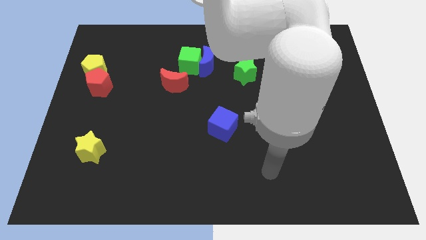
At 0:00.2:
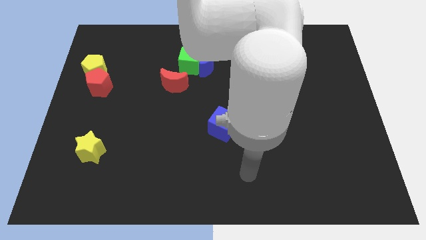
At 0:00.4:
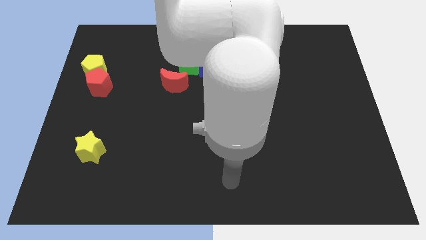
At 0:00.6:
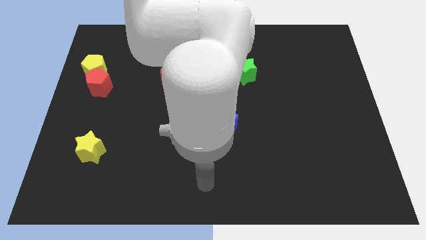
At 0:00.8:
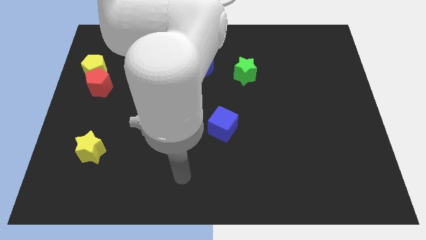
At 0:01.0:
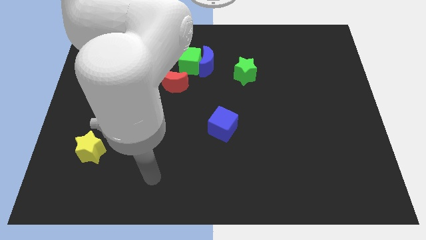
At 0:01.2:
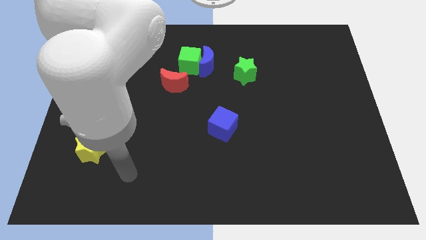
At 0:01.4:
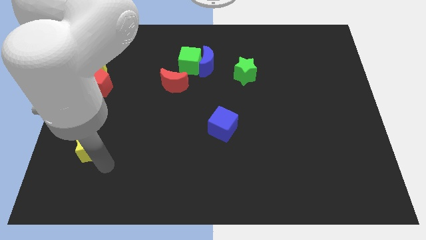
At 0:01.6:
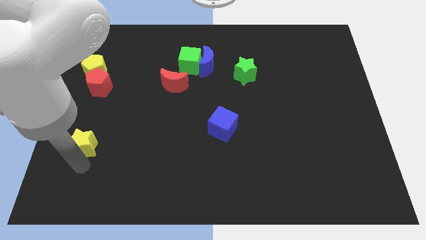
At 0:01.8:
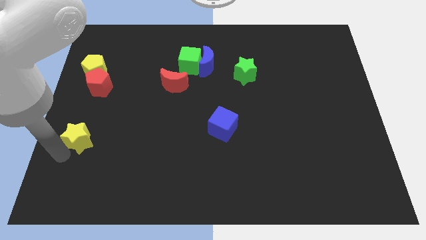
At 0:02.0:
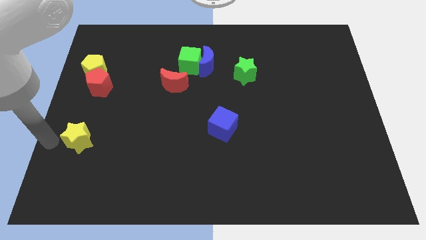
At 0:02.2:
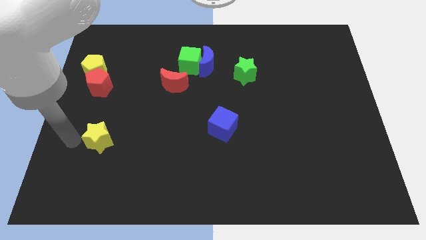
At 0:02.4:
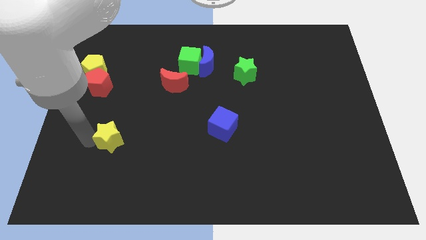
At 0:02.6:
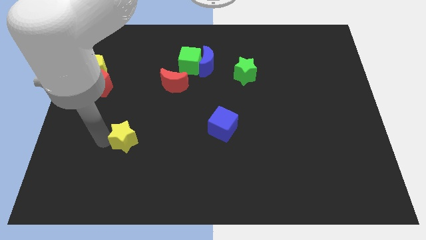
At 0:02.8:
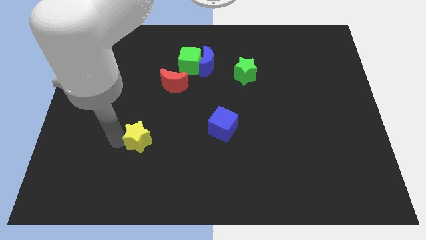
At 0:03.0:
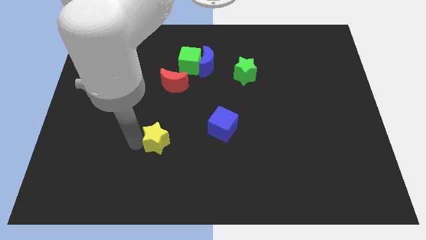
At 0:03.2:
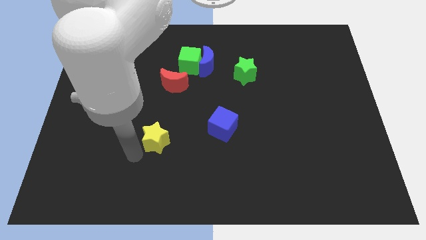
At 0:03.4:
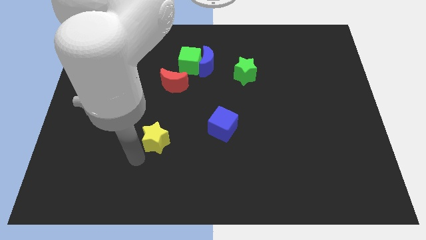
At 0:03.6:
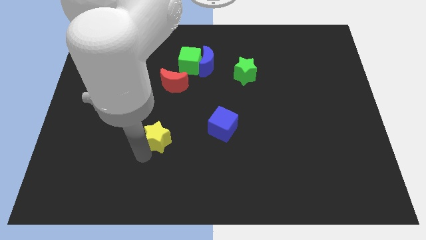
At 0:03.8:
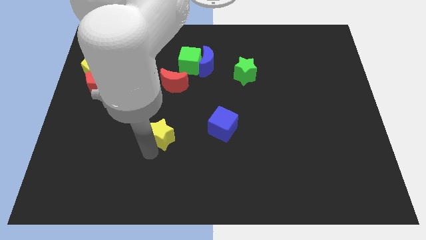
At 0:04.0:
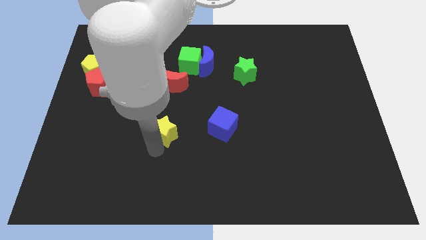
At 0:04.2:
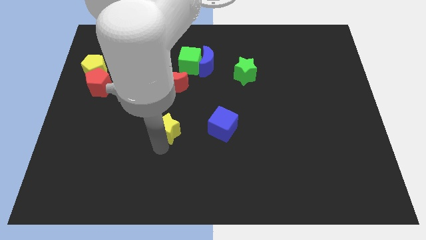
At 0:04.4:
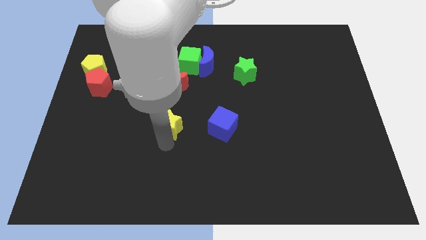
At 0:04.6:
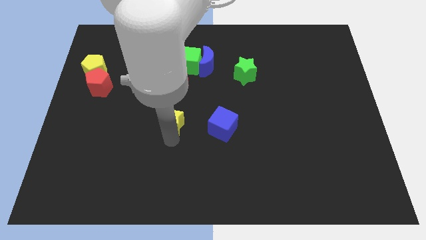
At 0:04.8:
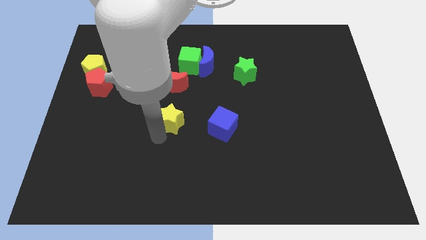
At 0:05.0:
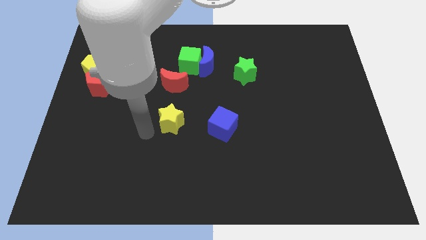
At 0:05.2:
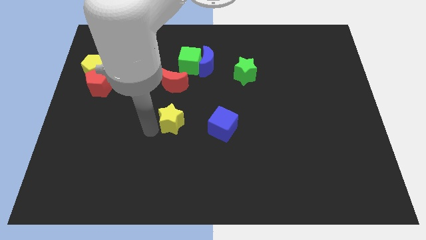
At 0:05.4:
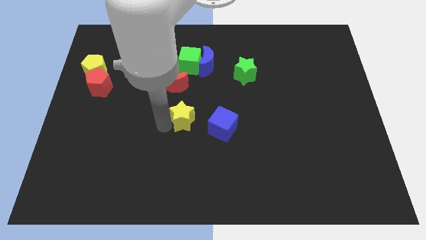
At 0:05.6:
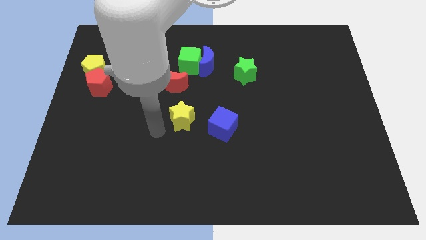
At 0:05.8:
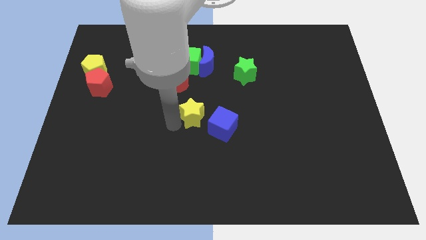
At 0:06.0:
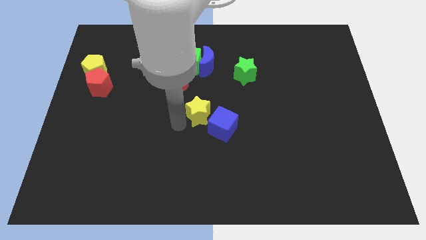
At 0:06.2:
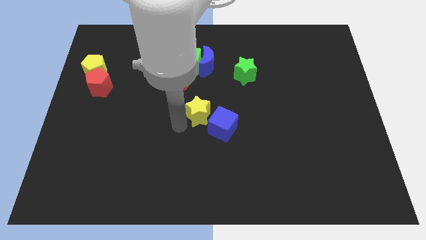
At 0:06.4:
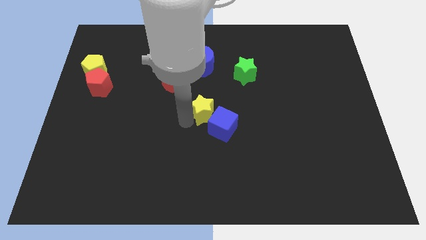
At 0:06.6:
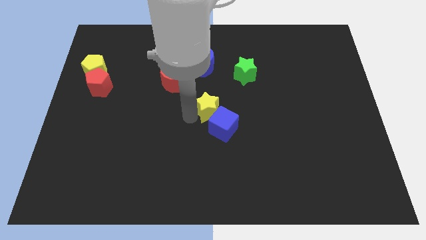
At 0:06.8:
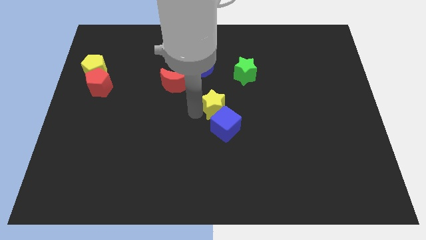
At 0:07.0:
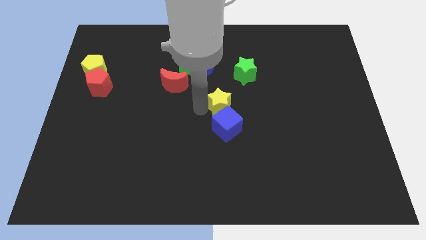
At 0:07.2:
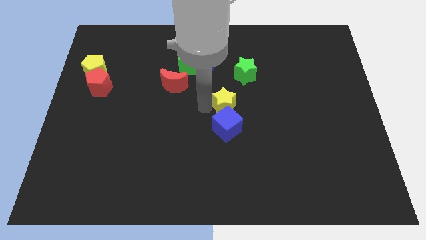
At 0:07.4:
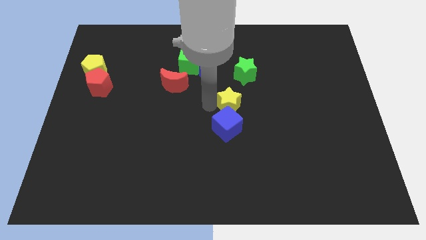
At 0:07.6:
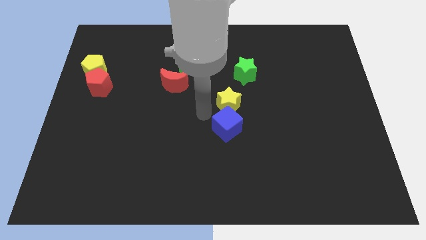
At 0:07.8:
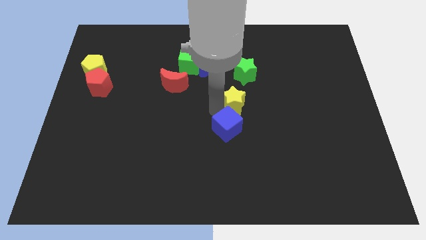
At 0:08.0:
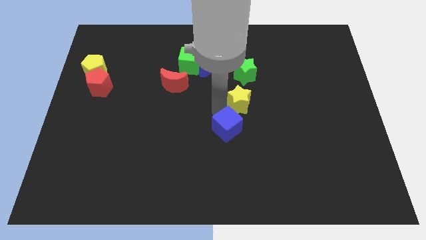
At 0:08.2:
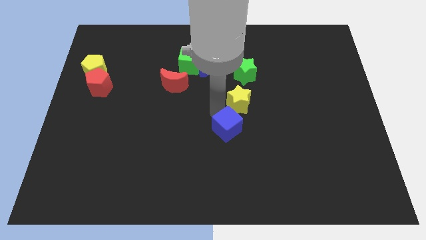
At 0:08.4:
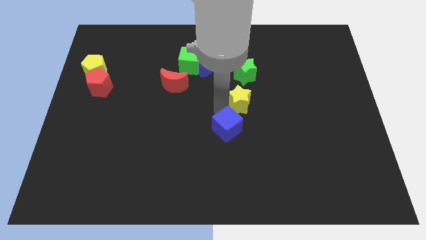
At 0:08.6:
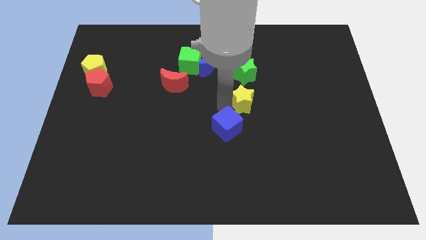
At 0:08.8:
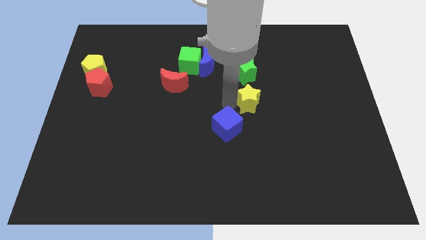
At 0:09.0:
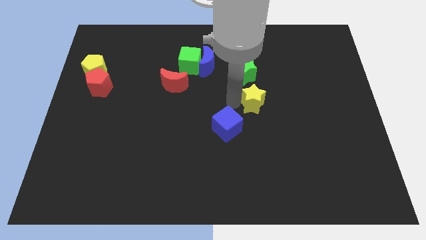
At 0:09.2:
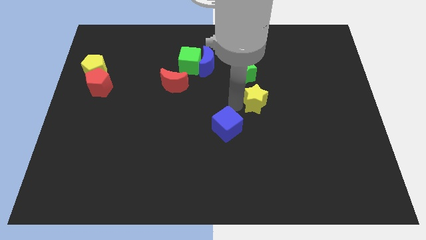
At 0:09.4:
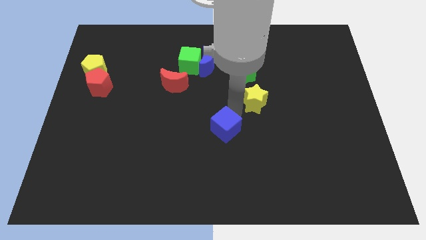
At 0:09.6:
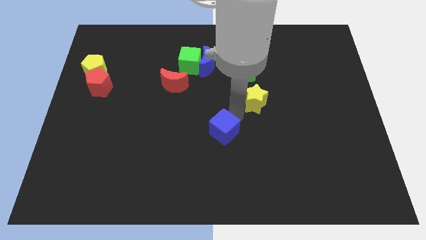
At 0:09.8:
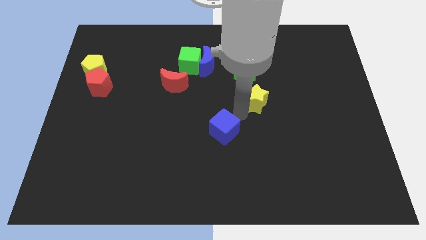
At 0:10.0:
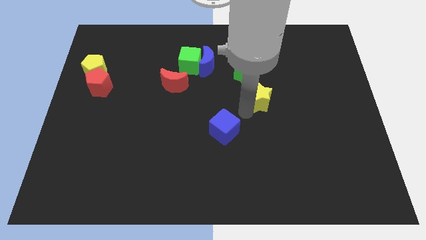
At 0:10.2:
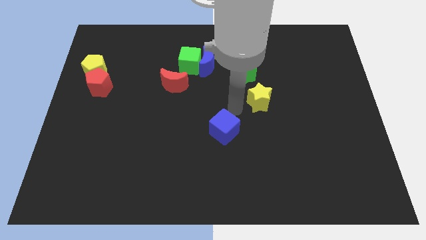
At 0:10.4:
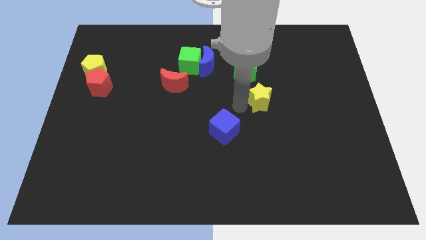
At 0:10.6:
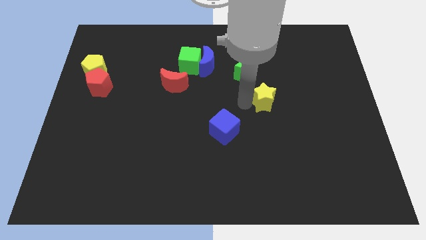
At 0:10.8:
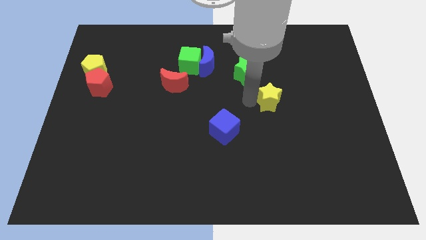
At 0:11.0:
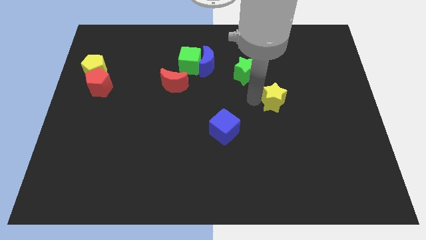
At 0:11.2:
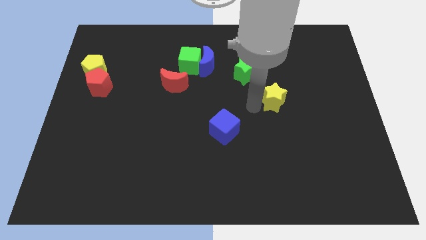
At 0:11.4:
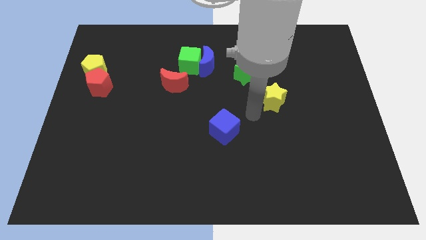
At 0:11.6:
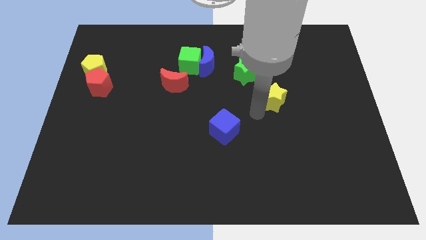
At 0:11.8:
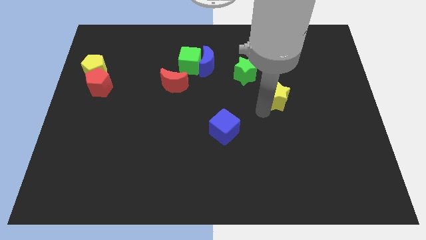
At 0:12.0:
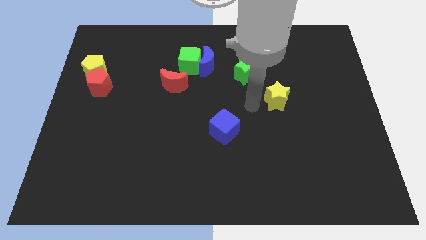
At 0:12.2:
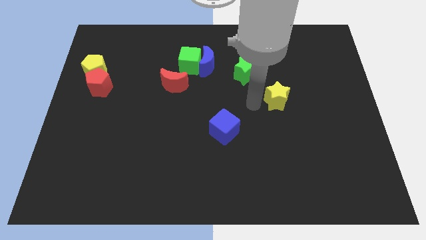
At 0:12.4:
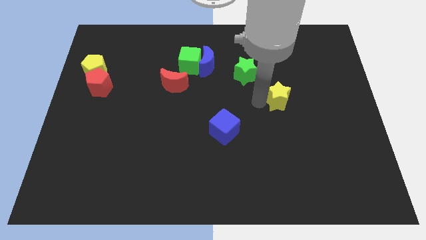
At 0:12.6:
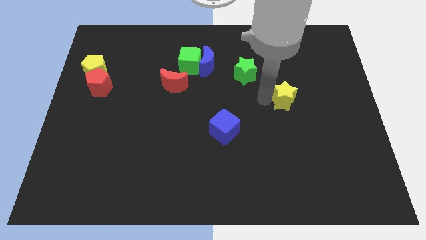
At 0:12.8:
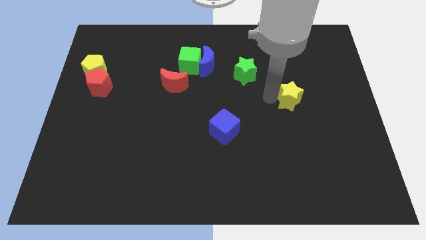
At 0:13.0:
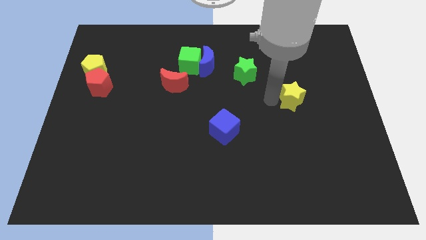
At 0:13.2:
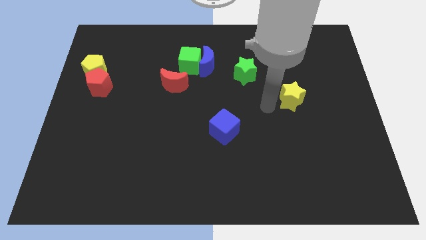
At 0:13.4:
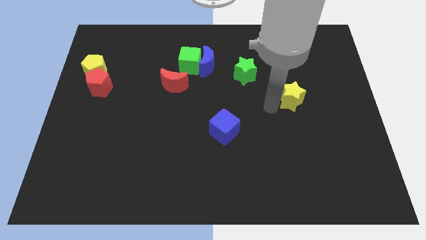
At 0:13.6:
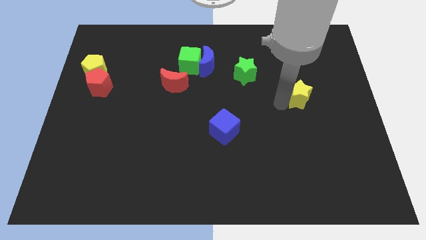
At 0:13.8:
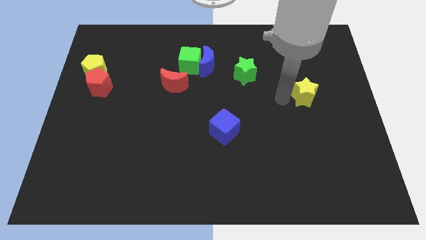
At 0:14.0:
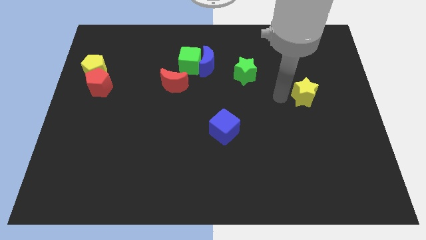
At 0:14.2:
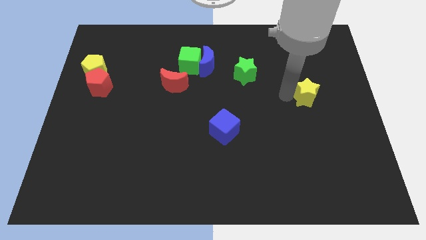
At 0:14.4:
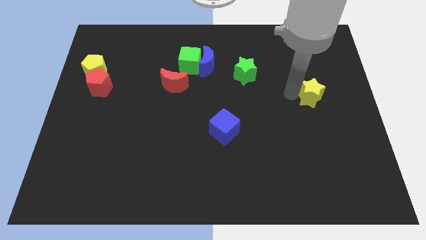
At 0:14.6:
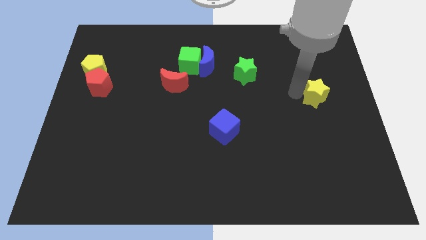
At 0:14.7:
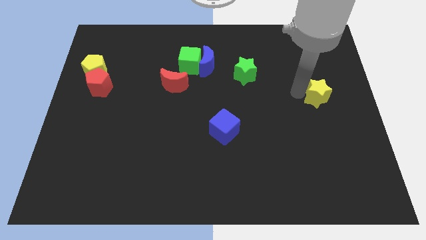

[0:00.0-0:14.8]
push the yellow star to the center right
